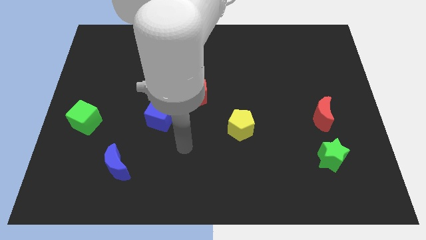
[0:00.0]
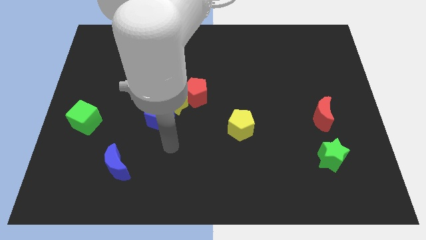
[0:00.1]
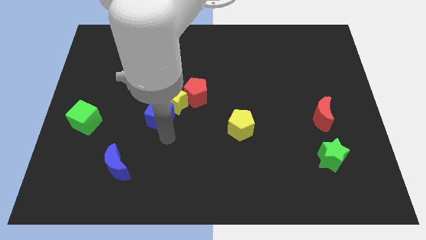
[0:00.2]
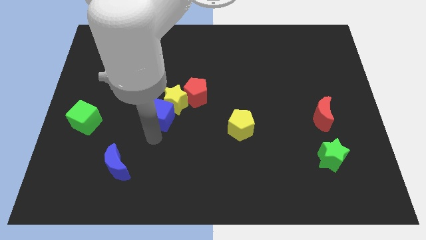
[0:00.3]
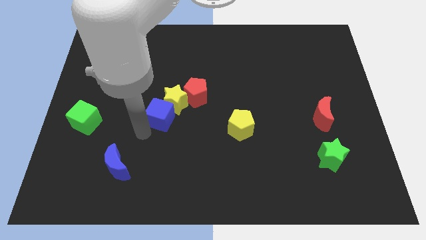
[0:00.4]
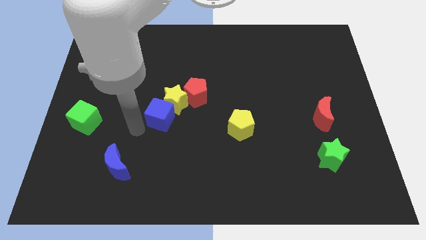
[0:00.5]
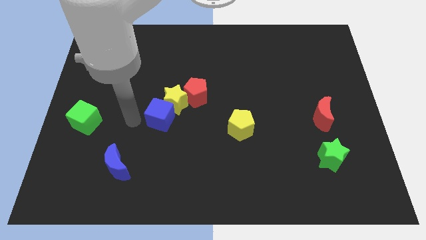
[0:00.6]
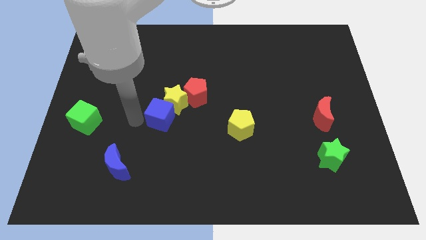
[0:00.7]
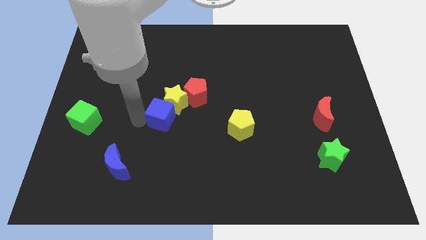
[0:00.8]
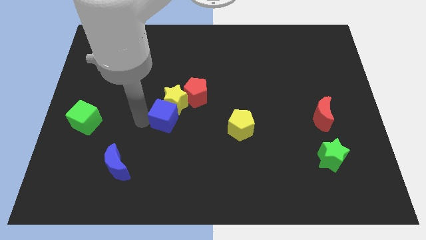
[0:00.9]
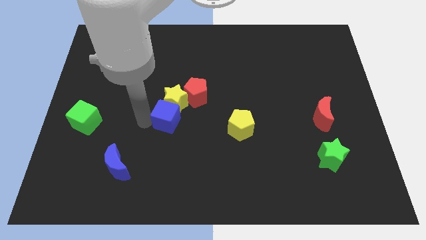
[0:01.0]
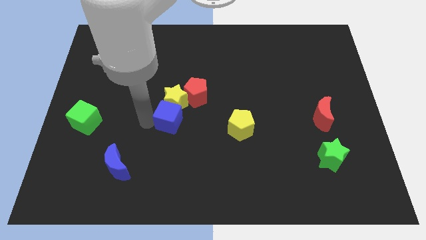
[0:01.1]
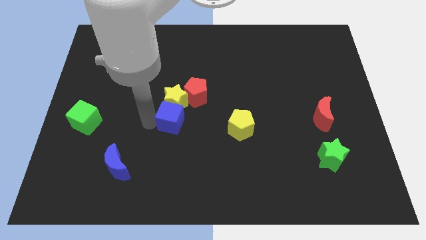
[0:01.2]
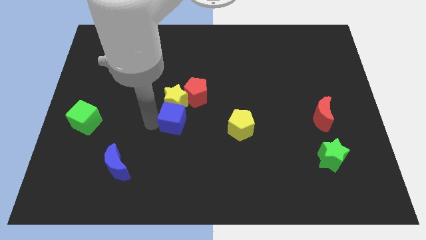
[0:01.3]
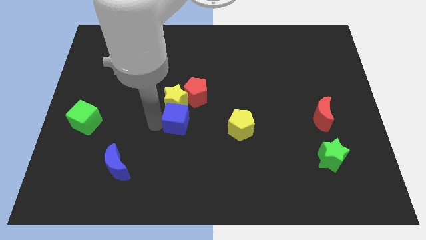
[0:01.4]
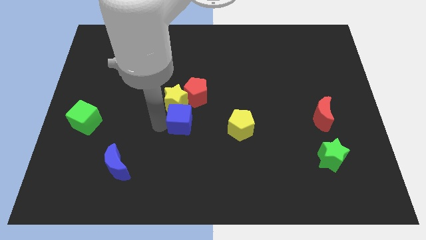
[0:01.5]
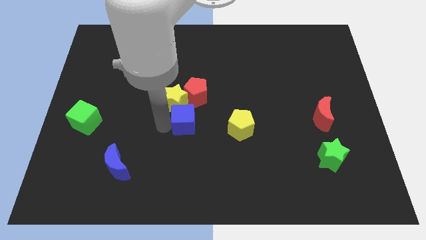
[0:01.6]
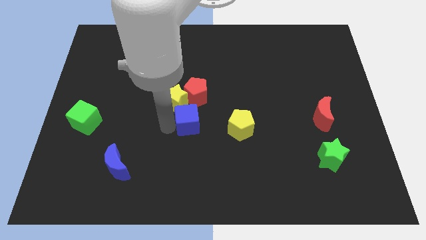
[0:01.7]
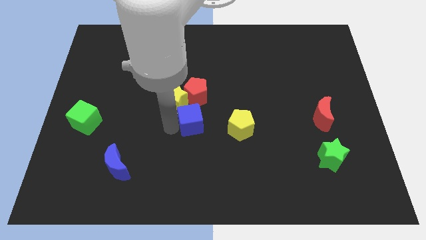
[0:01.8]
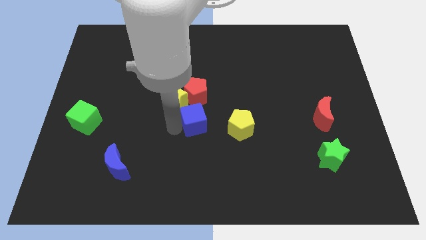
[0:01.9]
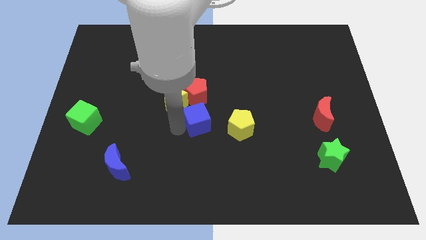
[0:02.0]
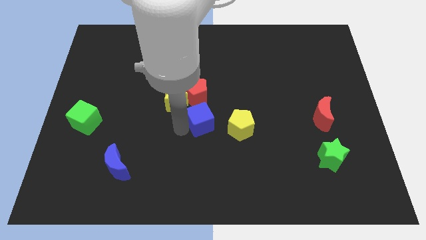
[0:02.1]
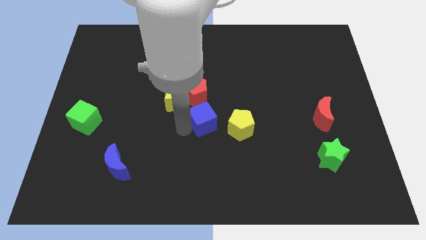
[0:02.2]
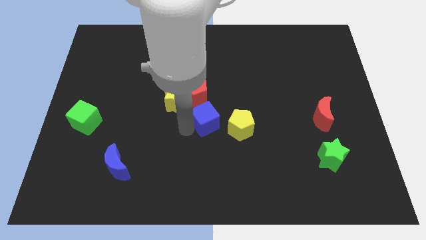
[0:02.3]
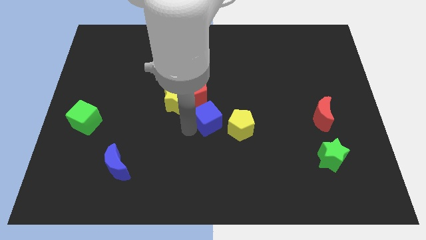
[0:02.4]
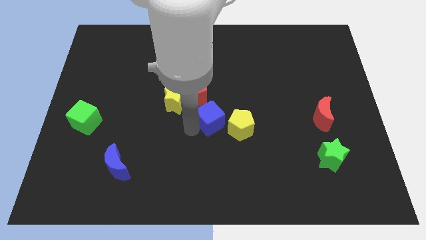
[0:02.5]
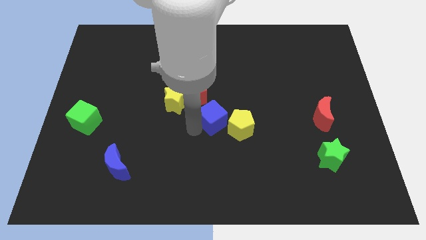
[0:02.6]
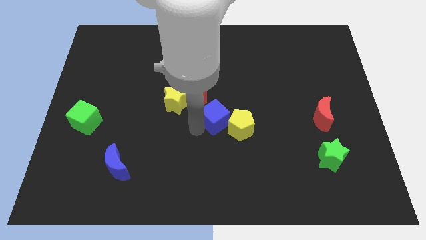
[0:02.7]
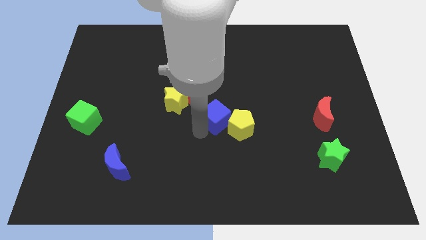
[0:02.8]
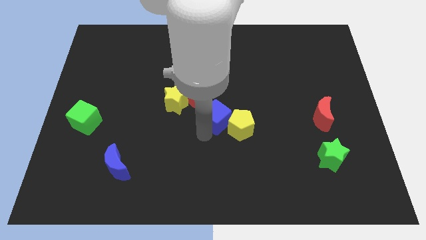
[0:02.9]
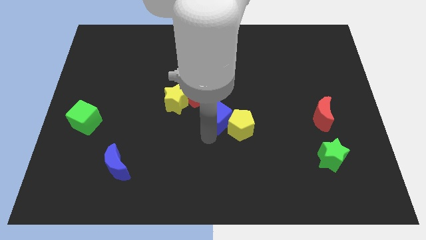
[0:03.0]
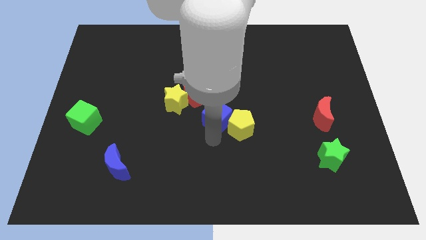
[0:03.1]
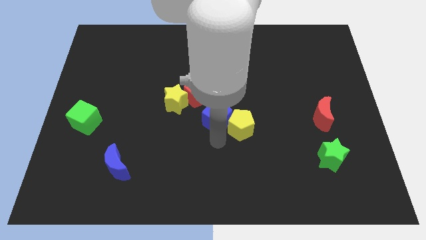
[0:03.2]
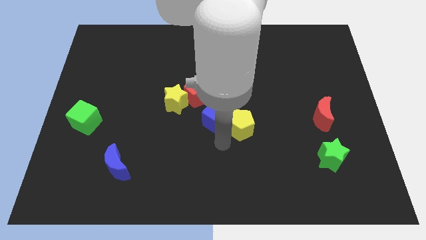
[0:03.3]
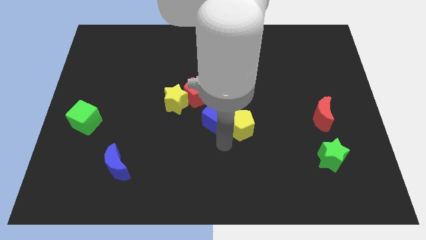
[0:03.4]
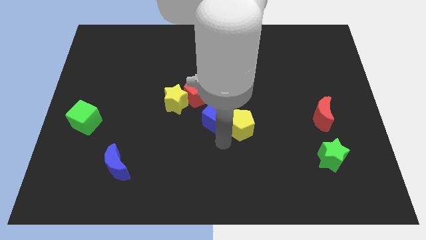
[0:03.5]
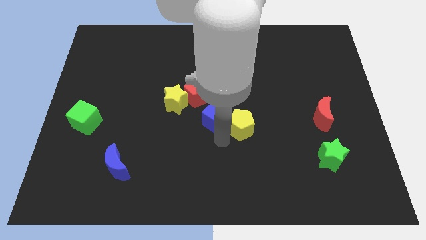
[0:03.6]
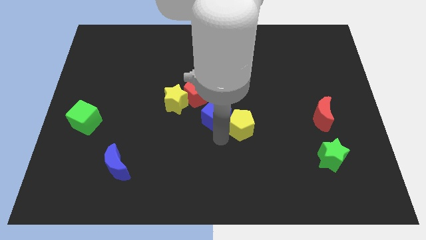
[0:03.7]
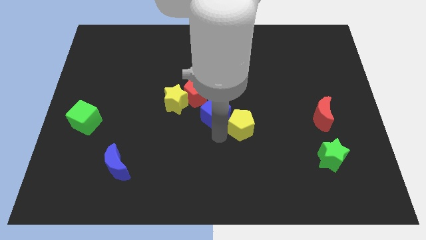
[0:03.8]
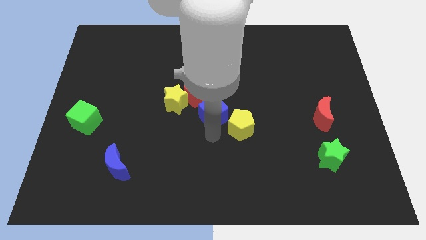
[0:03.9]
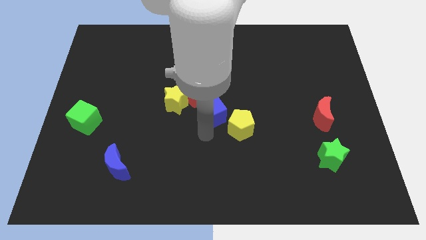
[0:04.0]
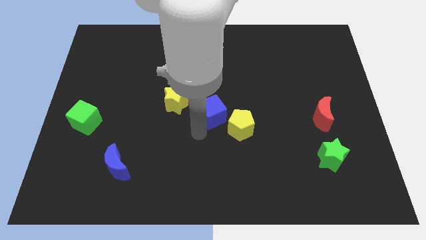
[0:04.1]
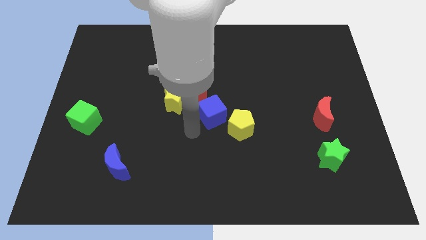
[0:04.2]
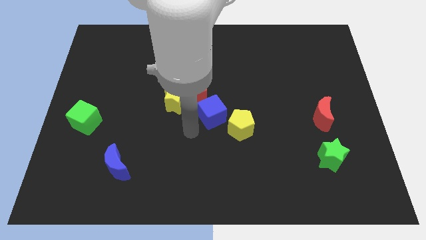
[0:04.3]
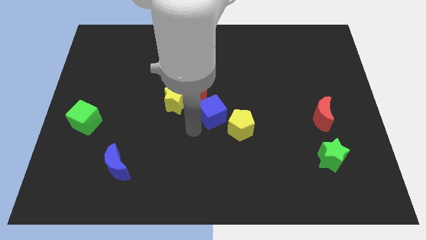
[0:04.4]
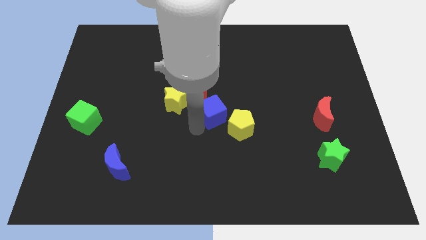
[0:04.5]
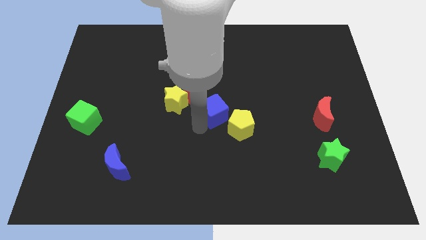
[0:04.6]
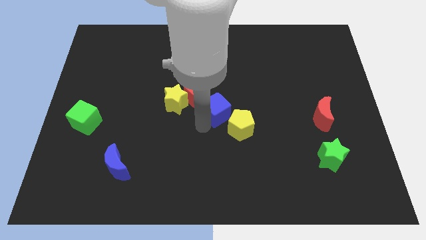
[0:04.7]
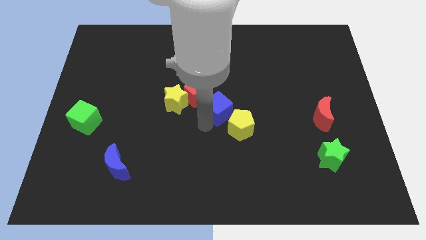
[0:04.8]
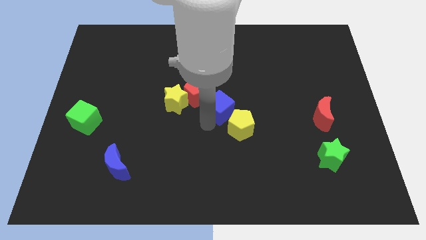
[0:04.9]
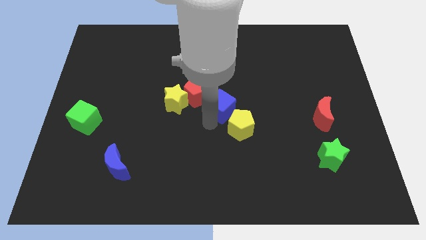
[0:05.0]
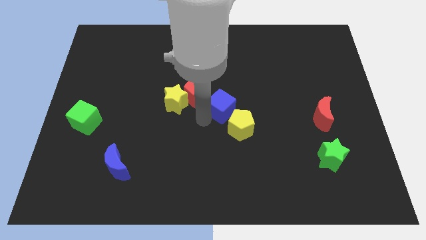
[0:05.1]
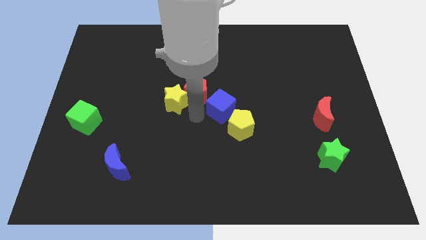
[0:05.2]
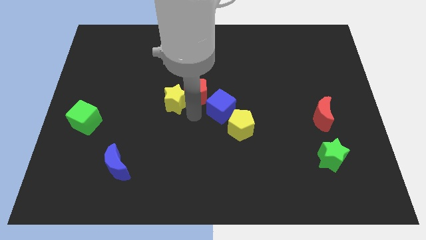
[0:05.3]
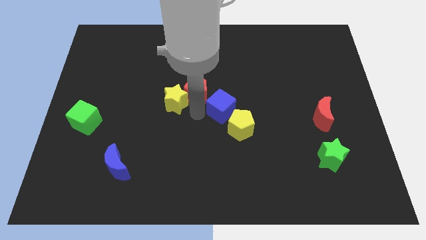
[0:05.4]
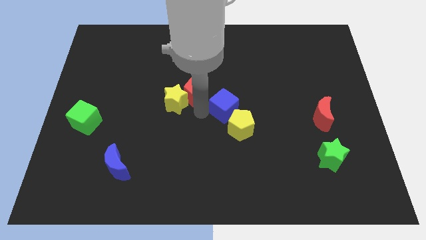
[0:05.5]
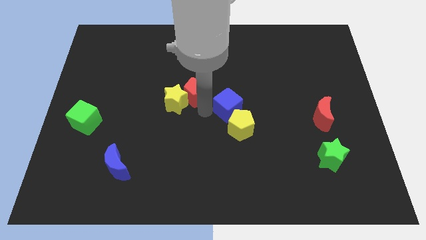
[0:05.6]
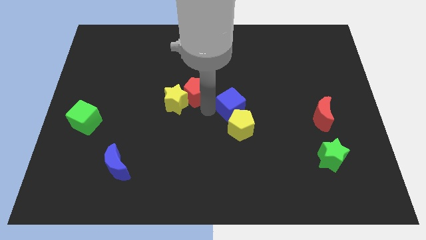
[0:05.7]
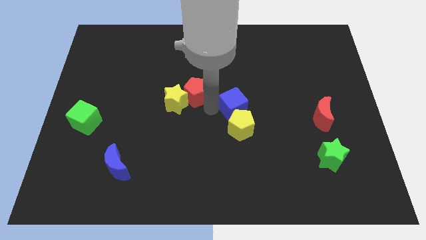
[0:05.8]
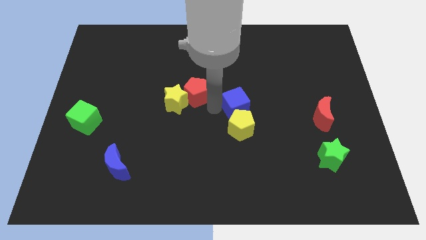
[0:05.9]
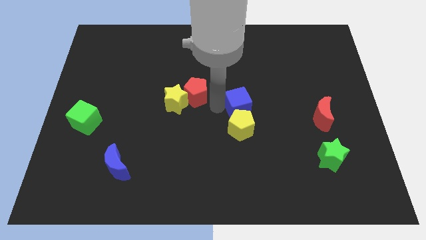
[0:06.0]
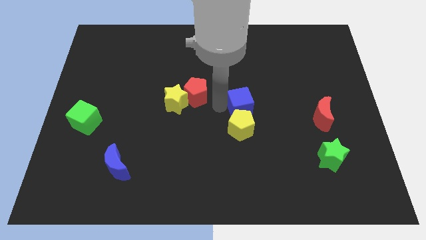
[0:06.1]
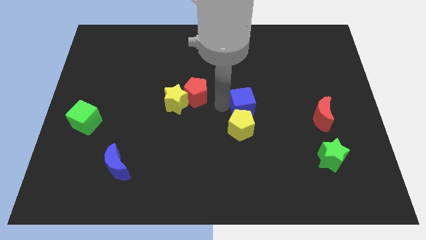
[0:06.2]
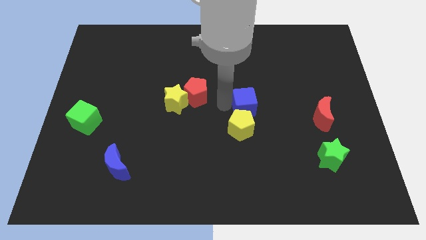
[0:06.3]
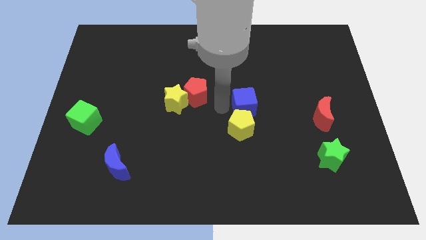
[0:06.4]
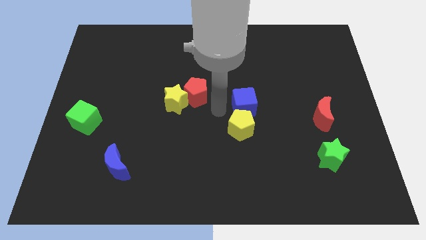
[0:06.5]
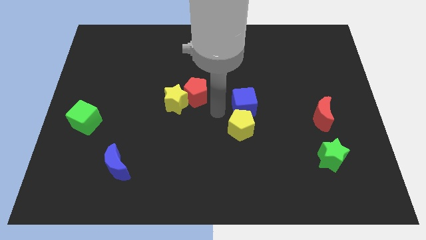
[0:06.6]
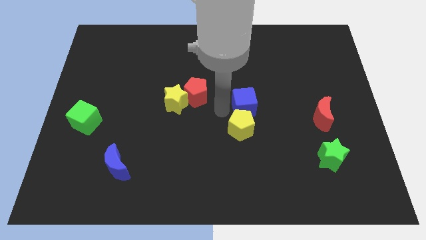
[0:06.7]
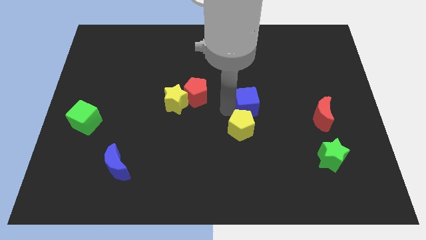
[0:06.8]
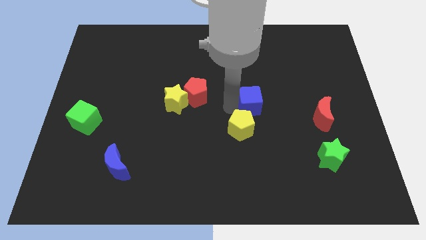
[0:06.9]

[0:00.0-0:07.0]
push the blue cube to the right

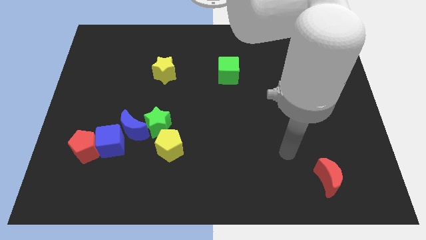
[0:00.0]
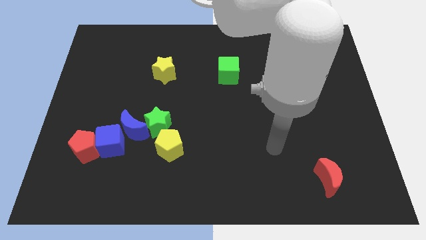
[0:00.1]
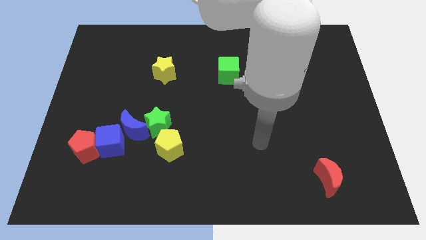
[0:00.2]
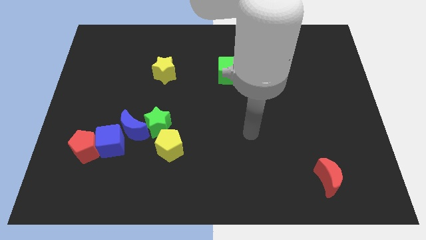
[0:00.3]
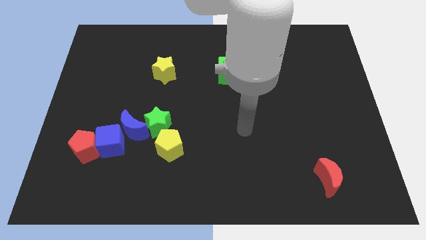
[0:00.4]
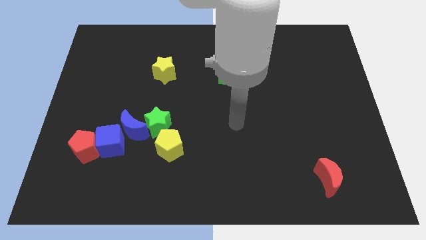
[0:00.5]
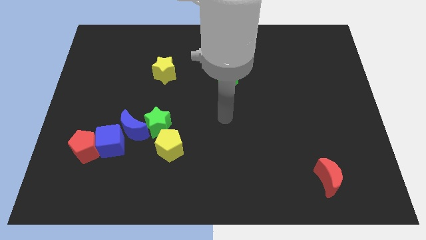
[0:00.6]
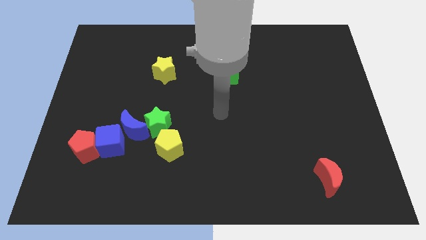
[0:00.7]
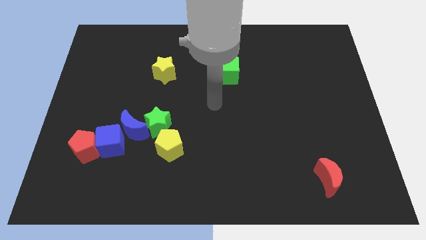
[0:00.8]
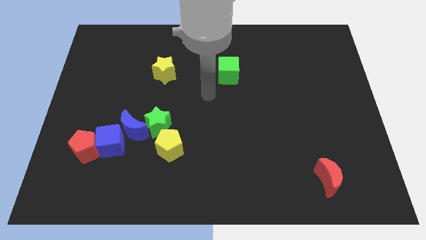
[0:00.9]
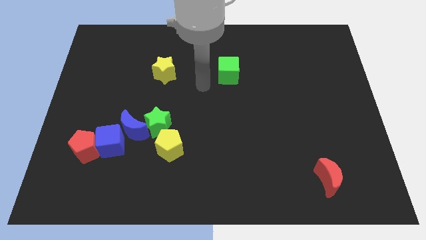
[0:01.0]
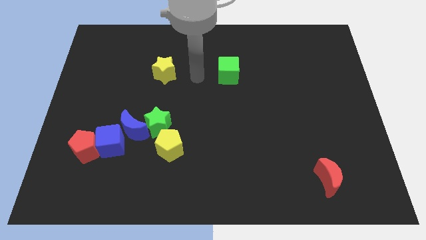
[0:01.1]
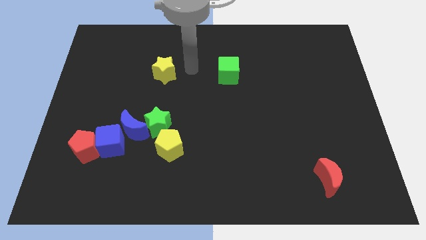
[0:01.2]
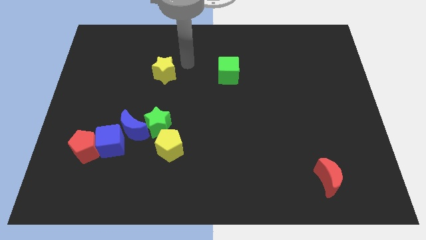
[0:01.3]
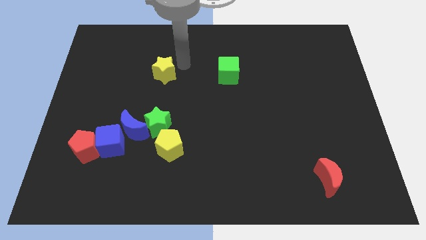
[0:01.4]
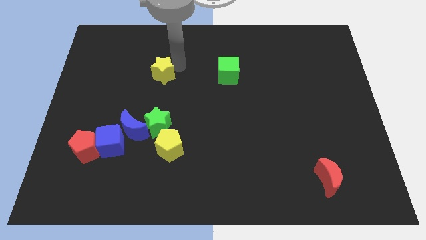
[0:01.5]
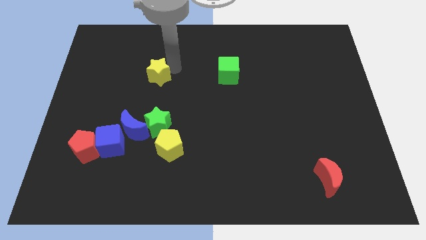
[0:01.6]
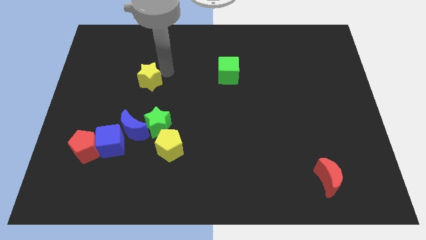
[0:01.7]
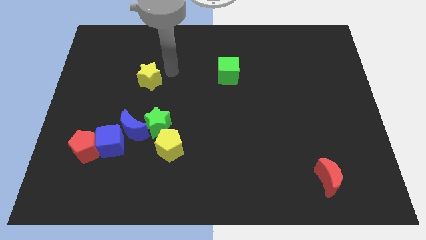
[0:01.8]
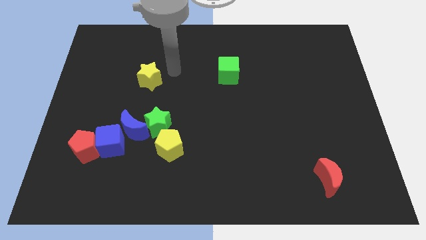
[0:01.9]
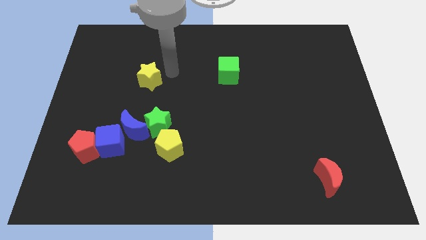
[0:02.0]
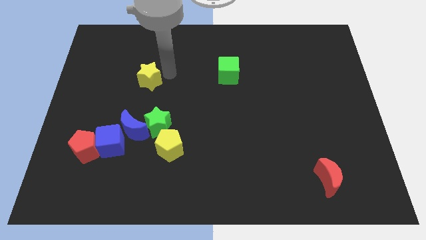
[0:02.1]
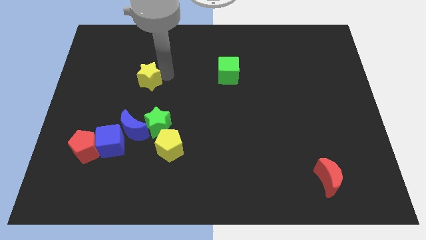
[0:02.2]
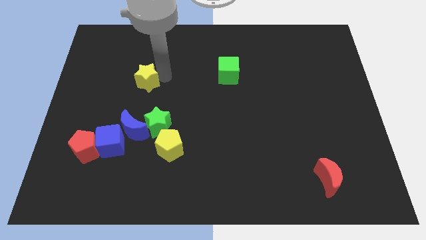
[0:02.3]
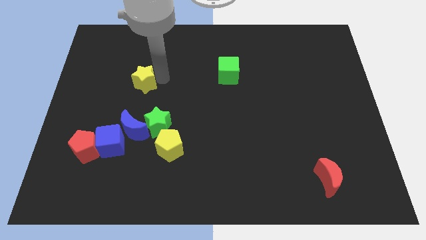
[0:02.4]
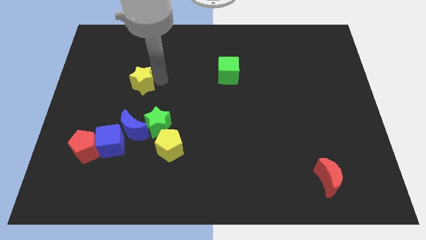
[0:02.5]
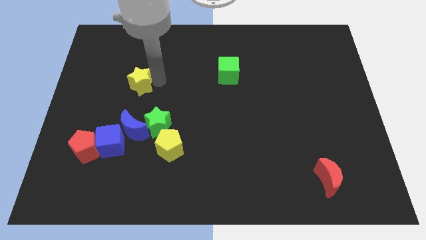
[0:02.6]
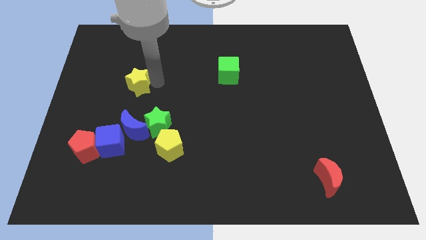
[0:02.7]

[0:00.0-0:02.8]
push the yellow star downwards and to the left a bit
